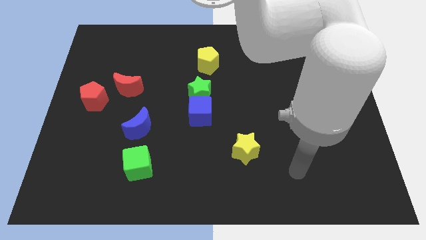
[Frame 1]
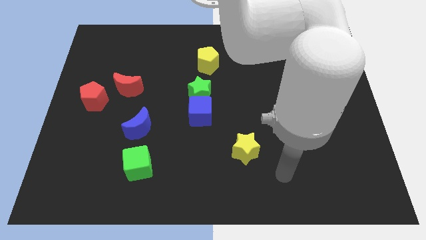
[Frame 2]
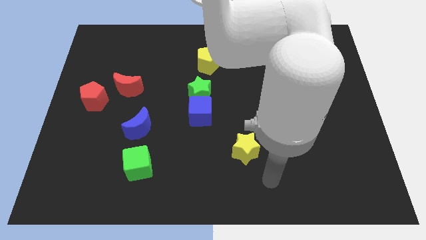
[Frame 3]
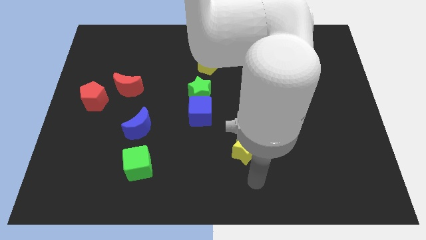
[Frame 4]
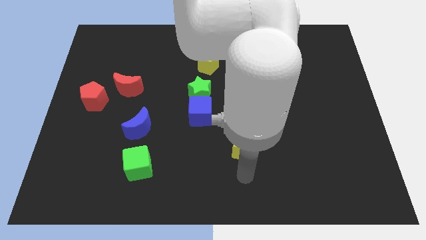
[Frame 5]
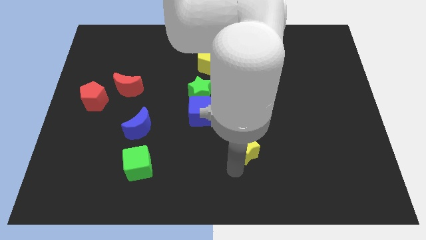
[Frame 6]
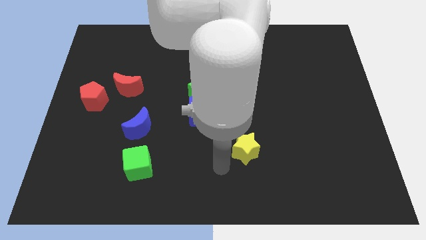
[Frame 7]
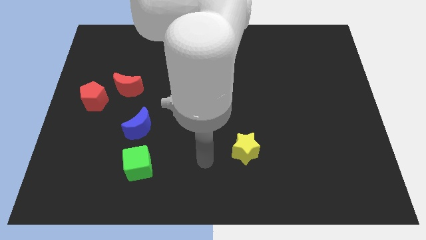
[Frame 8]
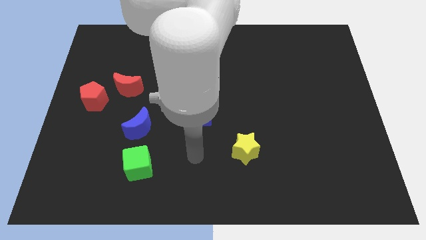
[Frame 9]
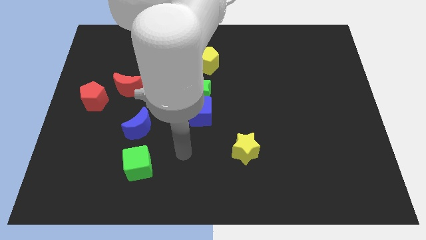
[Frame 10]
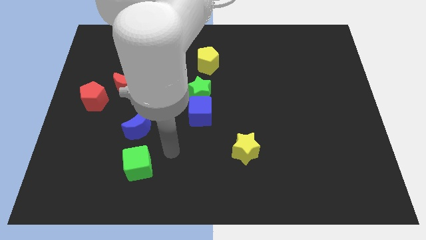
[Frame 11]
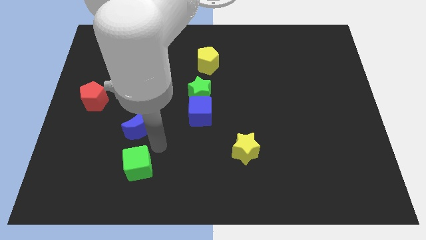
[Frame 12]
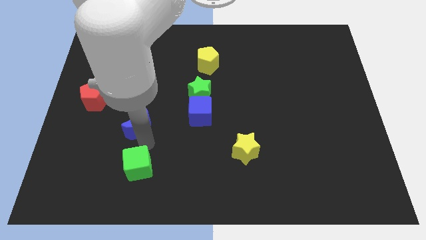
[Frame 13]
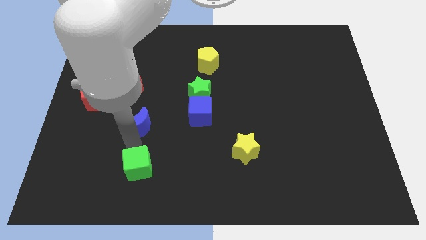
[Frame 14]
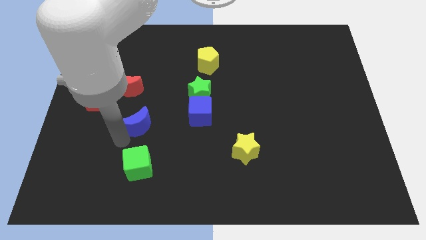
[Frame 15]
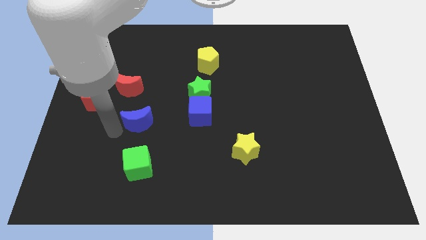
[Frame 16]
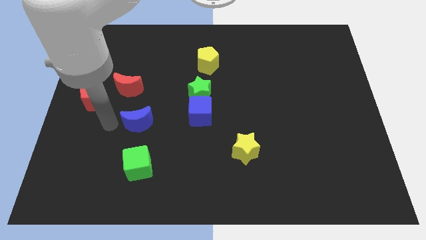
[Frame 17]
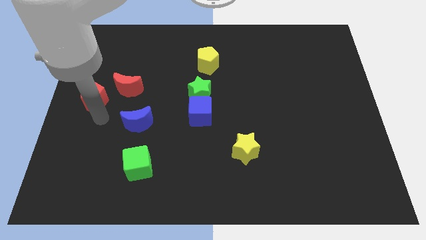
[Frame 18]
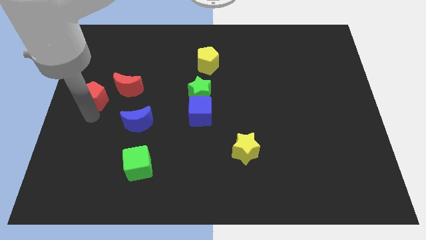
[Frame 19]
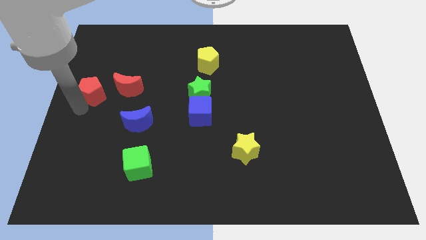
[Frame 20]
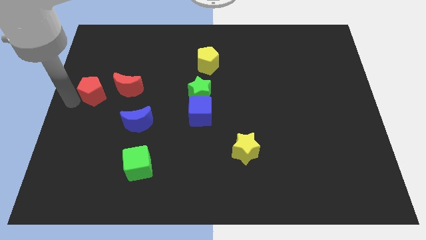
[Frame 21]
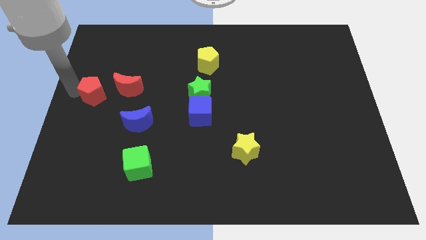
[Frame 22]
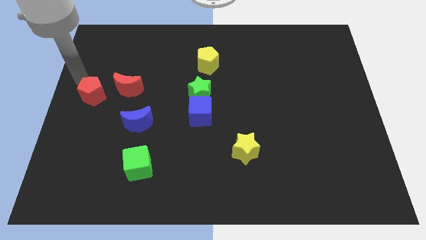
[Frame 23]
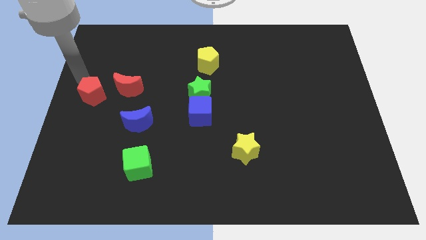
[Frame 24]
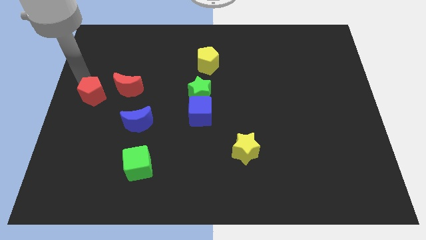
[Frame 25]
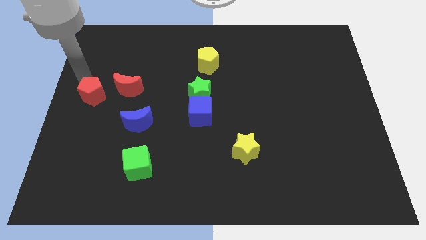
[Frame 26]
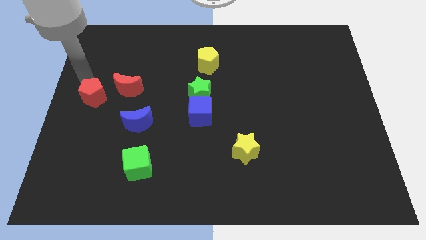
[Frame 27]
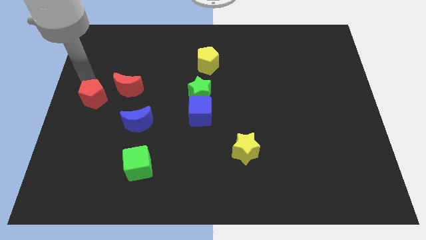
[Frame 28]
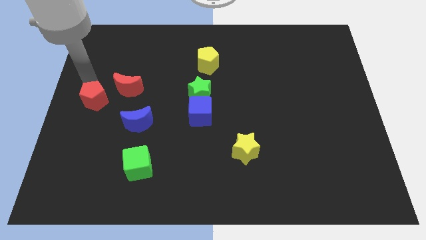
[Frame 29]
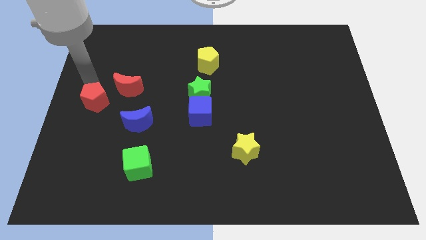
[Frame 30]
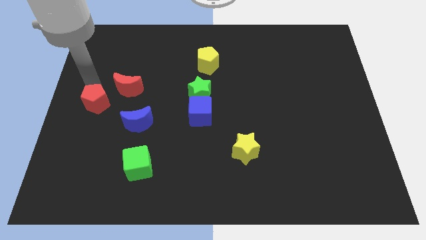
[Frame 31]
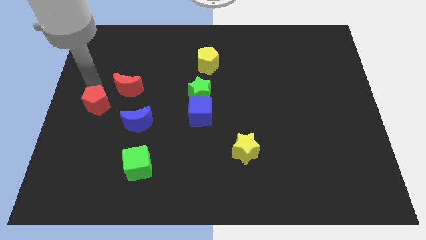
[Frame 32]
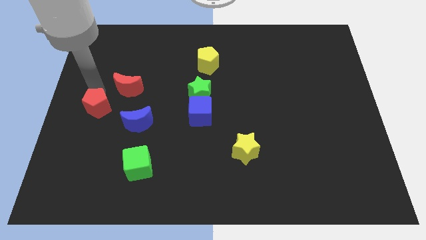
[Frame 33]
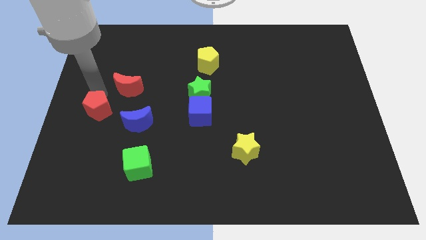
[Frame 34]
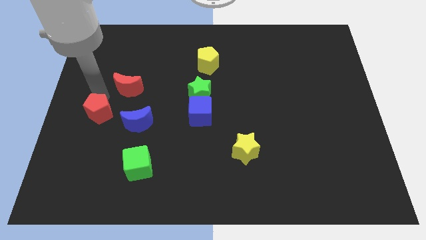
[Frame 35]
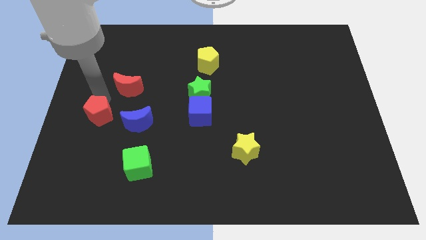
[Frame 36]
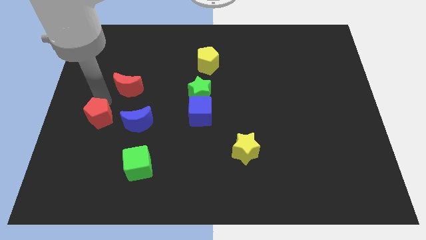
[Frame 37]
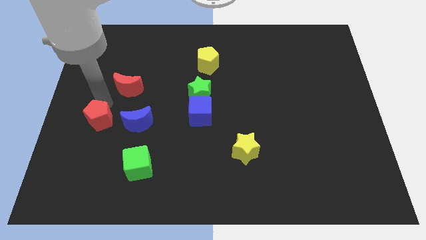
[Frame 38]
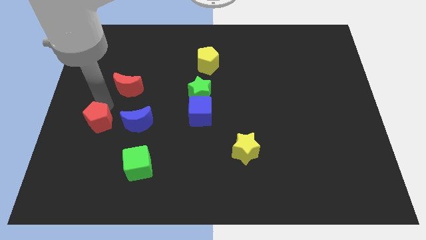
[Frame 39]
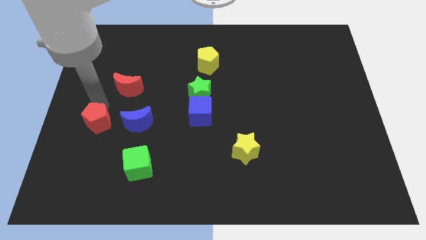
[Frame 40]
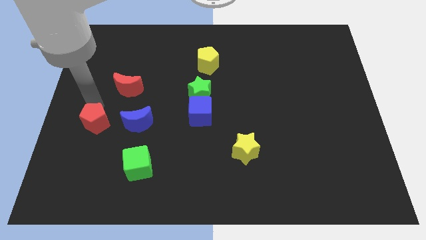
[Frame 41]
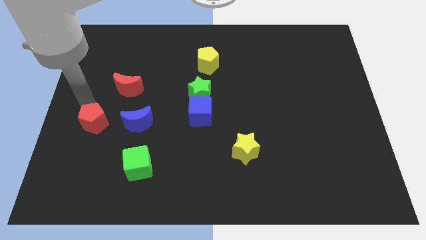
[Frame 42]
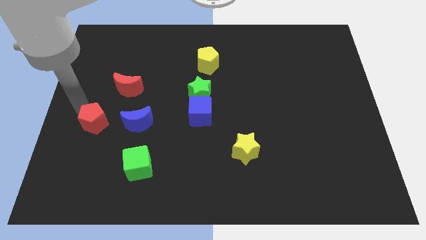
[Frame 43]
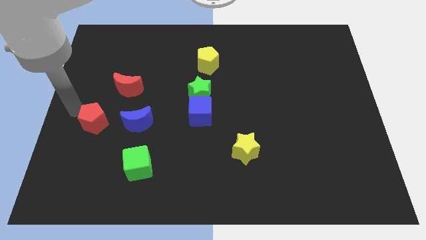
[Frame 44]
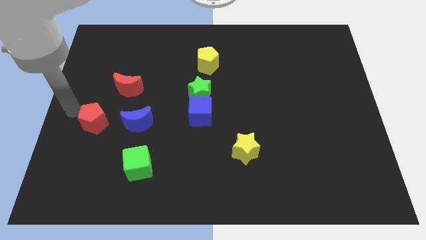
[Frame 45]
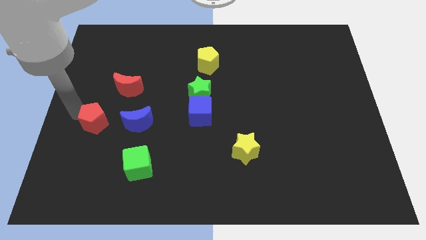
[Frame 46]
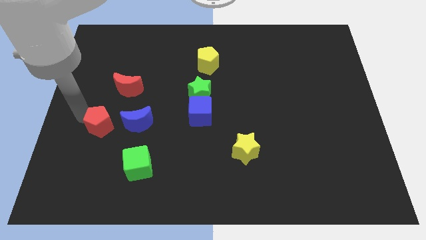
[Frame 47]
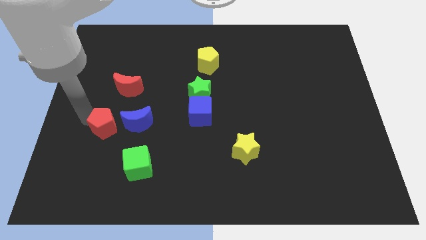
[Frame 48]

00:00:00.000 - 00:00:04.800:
slightly slide the red pentagon diagonally down and to the right

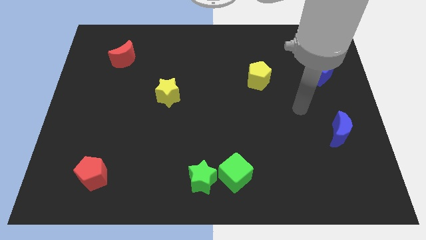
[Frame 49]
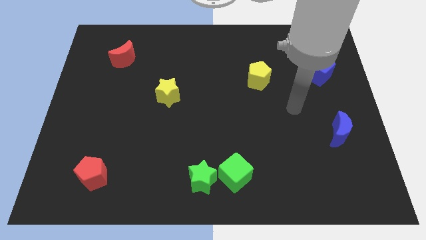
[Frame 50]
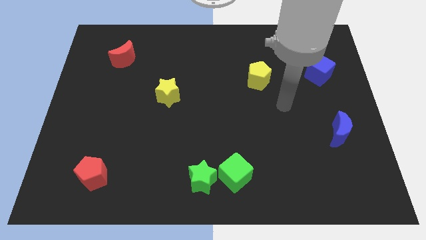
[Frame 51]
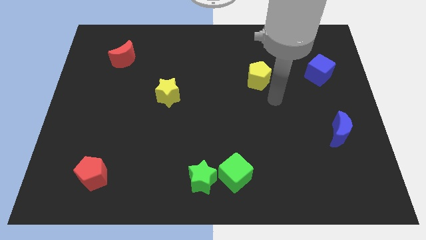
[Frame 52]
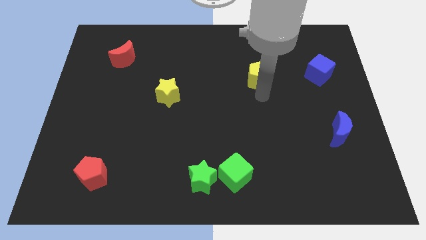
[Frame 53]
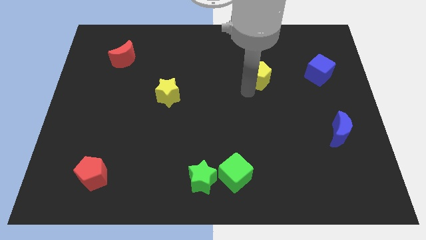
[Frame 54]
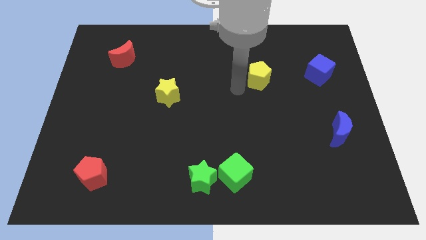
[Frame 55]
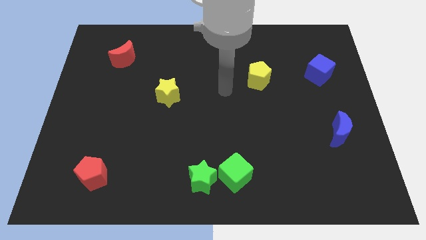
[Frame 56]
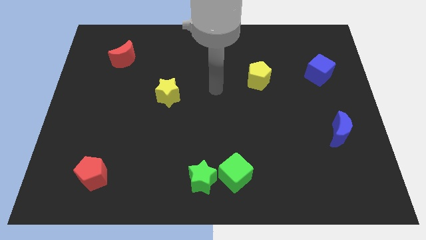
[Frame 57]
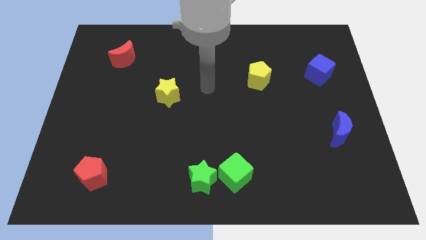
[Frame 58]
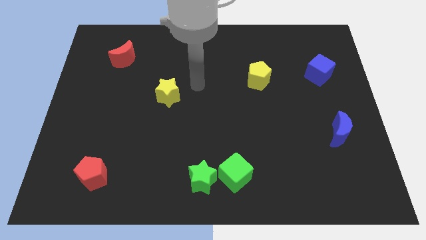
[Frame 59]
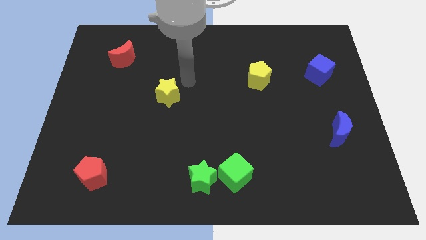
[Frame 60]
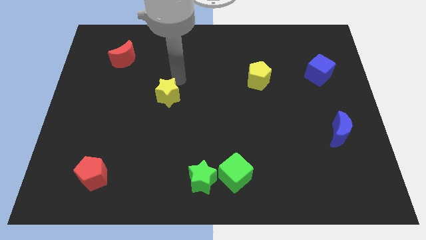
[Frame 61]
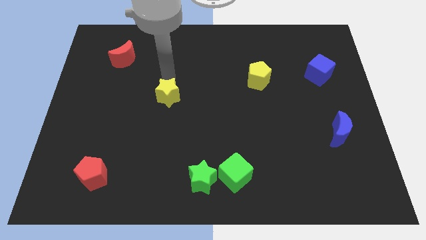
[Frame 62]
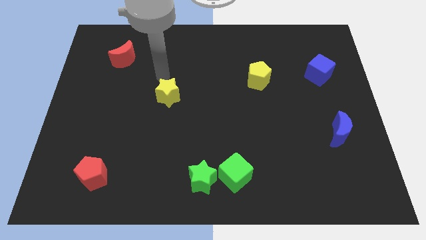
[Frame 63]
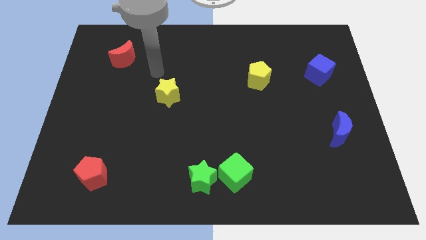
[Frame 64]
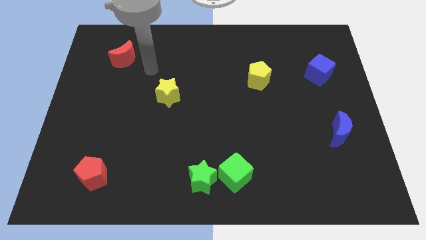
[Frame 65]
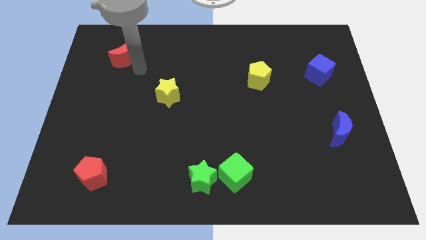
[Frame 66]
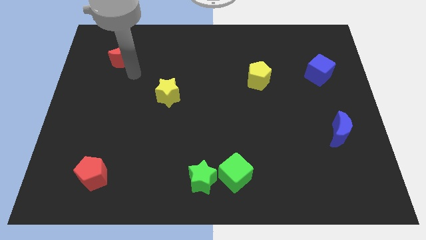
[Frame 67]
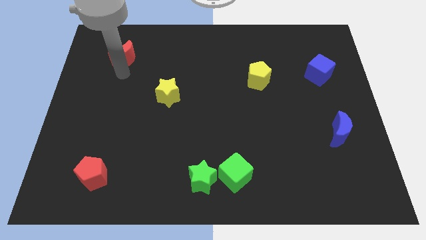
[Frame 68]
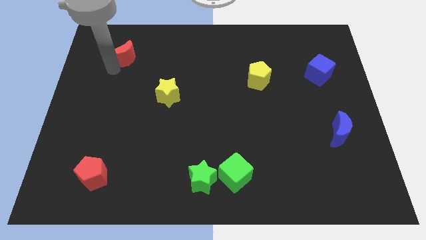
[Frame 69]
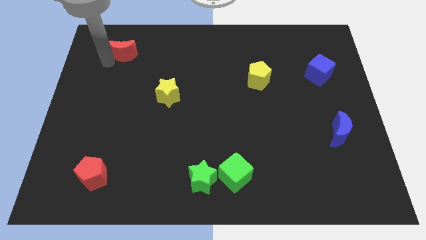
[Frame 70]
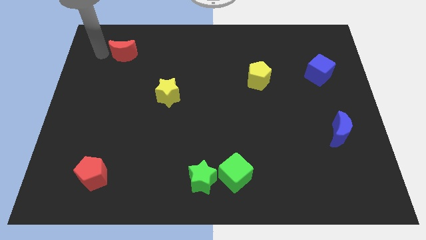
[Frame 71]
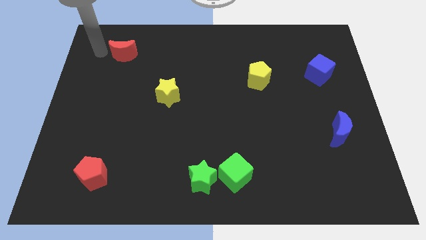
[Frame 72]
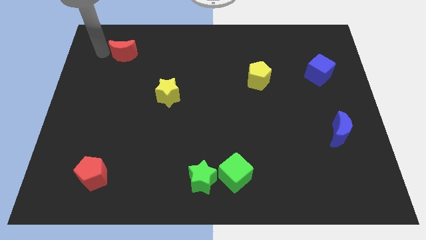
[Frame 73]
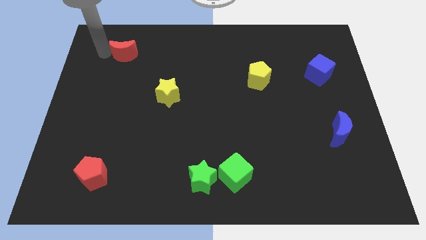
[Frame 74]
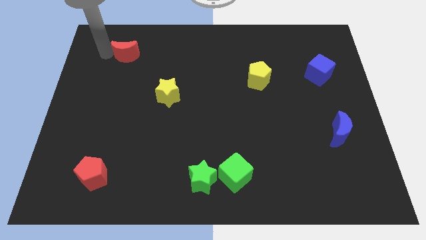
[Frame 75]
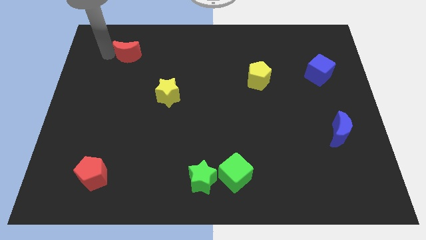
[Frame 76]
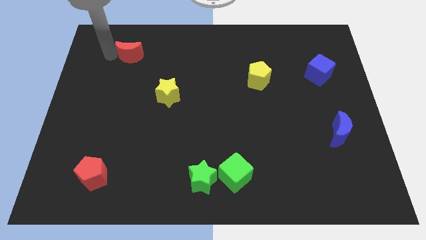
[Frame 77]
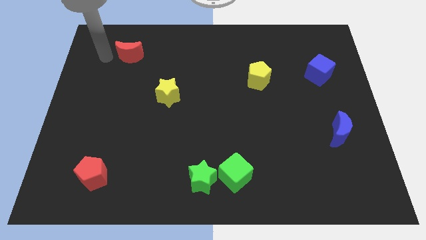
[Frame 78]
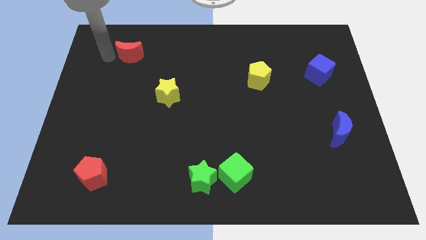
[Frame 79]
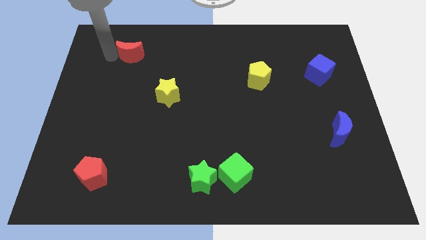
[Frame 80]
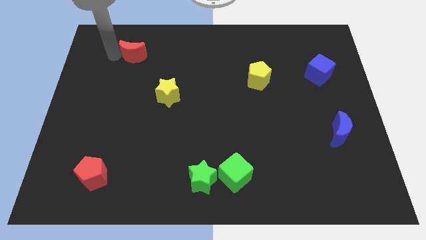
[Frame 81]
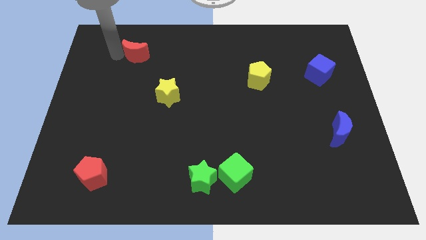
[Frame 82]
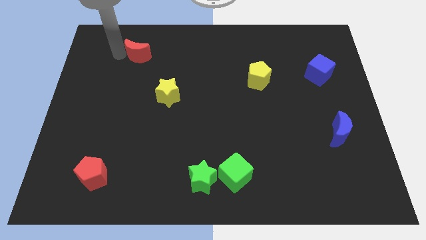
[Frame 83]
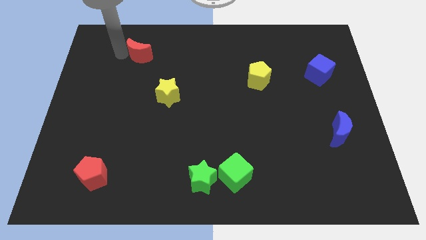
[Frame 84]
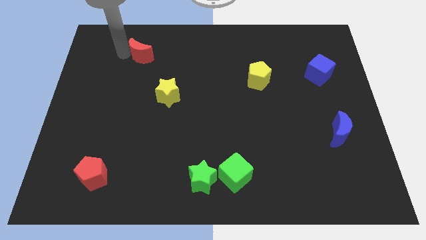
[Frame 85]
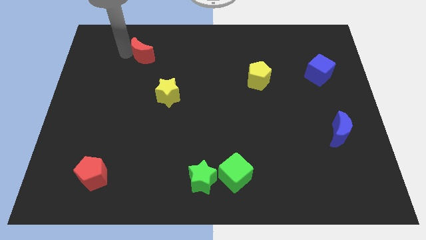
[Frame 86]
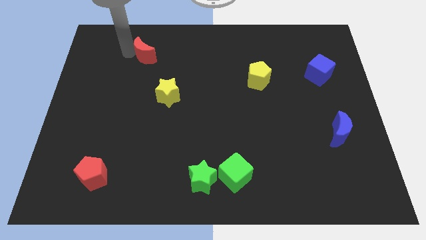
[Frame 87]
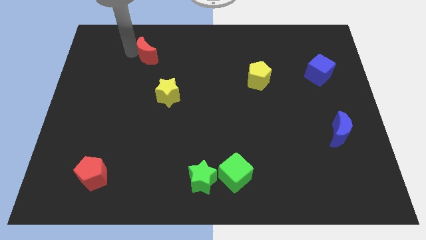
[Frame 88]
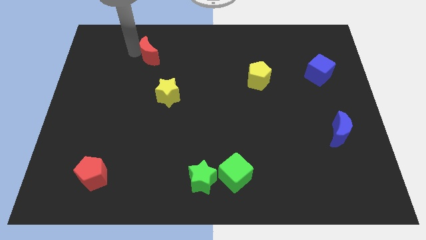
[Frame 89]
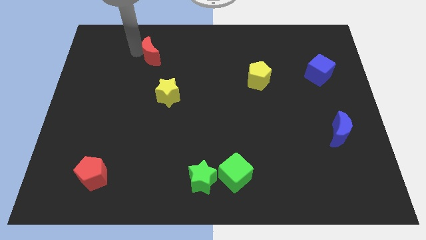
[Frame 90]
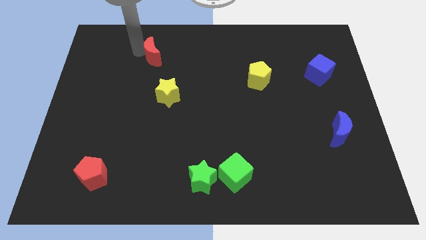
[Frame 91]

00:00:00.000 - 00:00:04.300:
slightly push the red moon to the right
